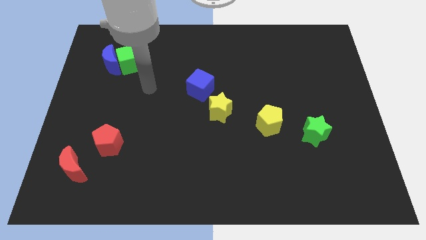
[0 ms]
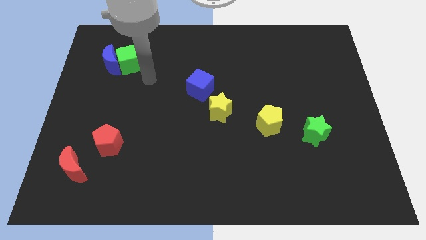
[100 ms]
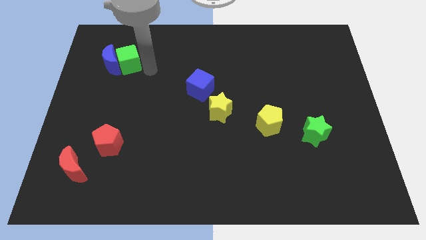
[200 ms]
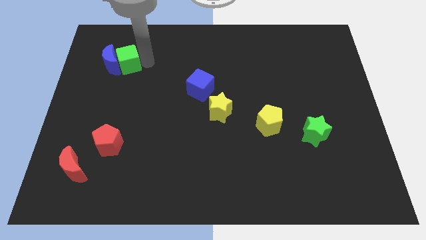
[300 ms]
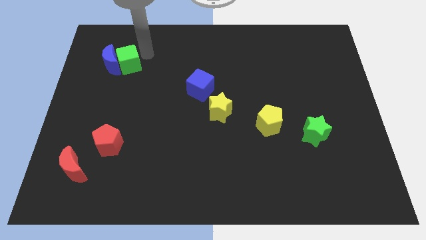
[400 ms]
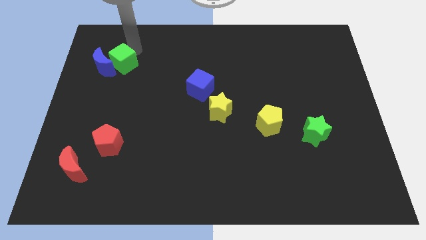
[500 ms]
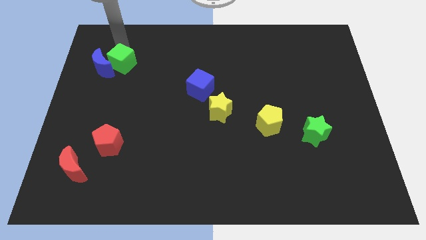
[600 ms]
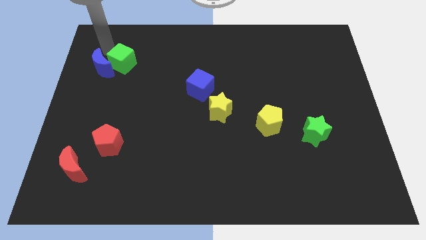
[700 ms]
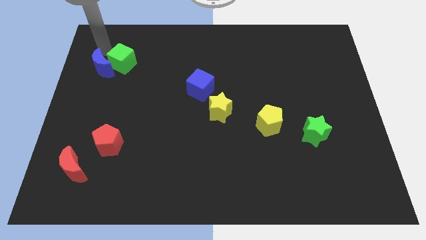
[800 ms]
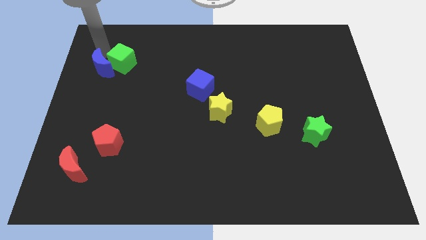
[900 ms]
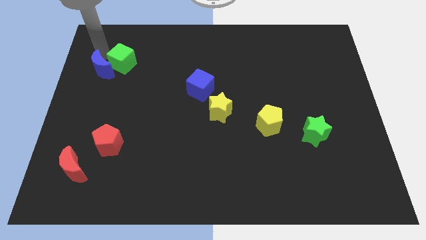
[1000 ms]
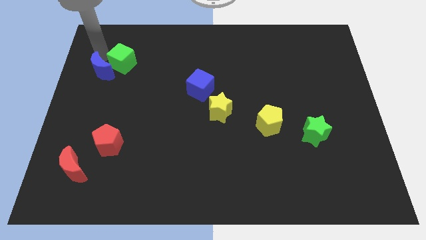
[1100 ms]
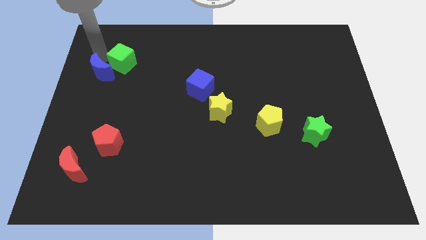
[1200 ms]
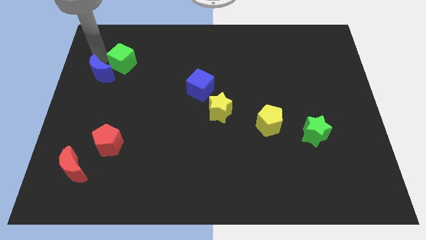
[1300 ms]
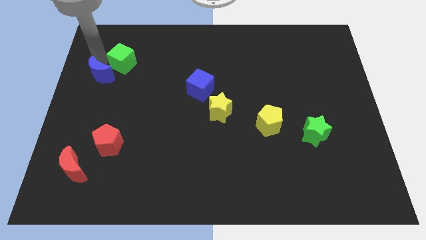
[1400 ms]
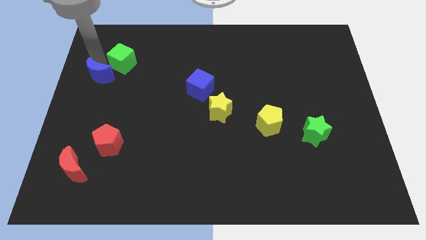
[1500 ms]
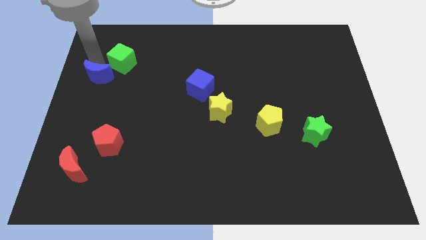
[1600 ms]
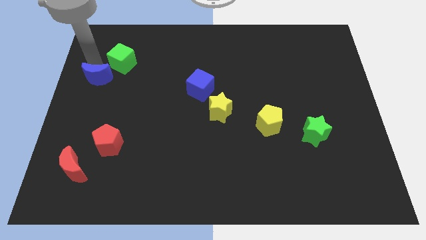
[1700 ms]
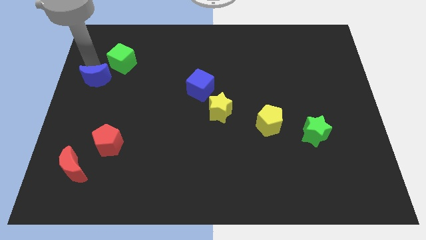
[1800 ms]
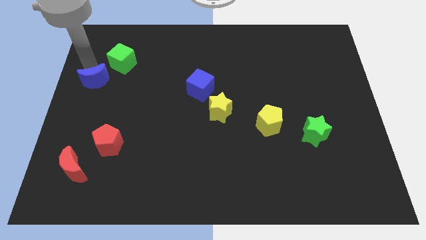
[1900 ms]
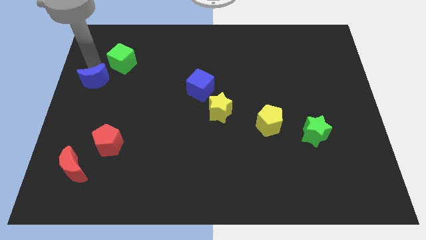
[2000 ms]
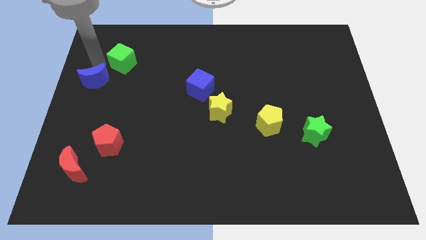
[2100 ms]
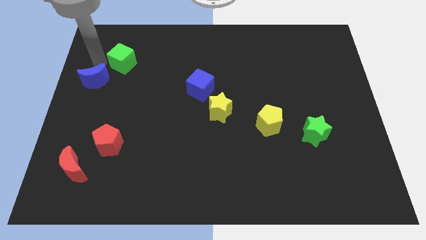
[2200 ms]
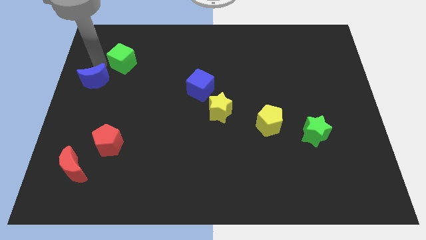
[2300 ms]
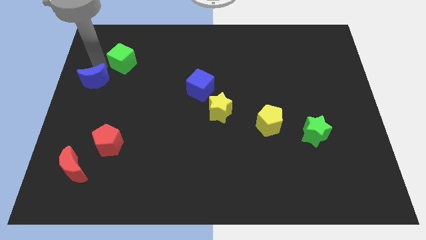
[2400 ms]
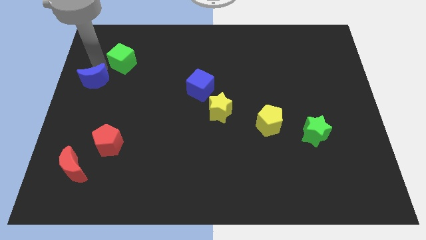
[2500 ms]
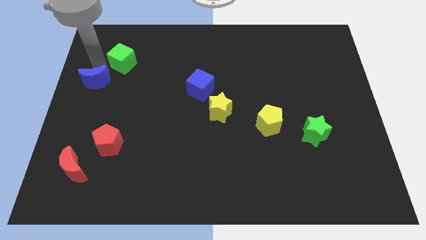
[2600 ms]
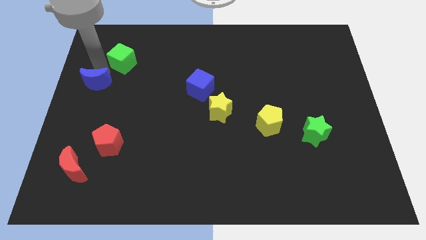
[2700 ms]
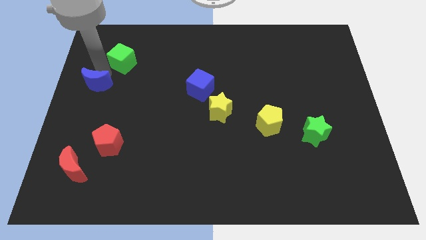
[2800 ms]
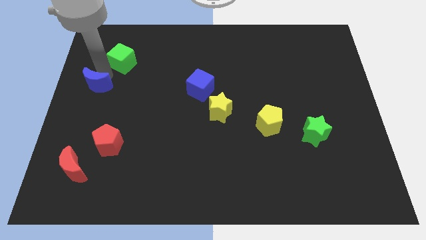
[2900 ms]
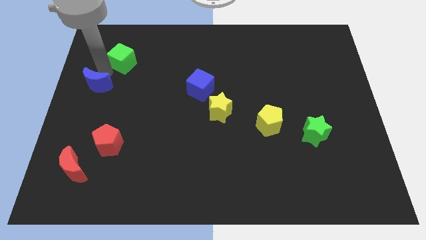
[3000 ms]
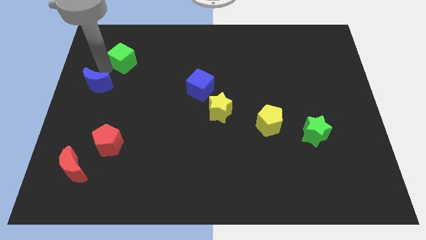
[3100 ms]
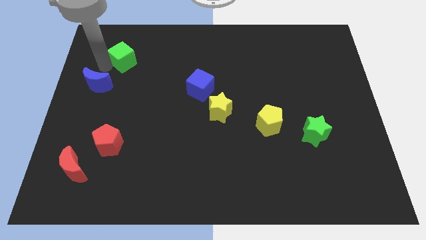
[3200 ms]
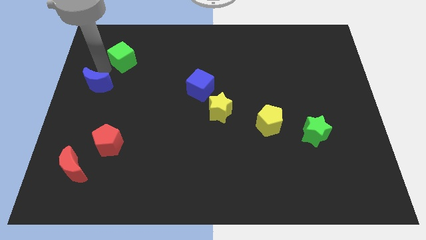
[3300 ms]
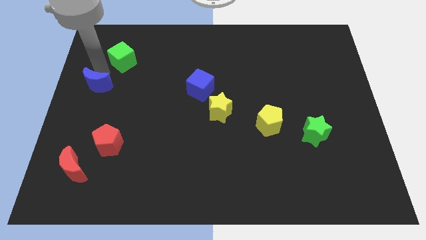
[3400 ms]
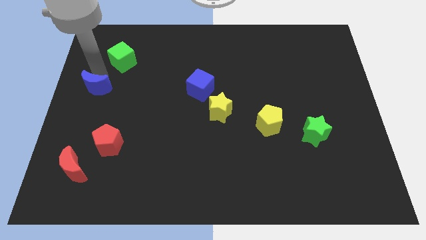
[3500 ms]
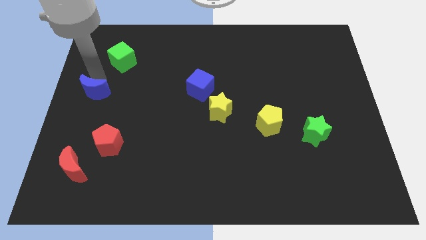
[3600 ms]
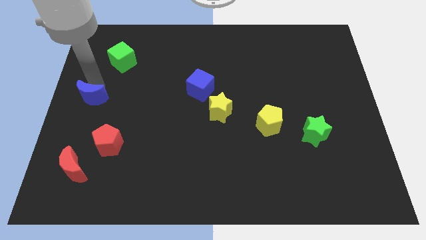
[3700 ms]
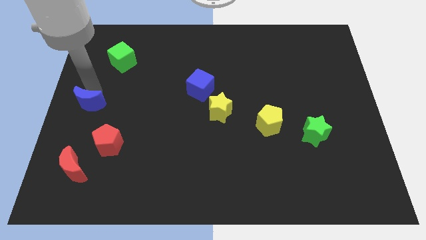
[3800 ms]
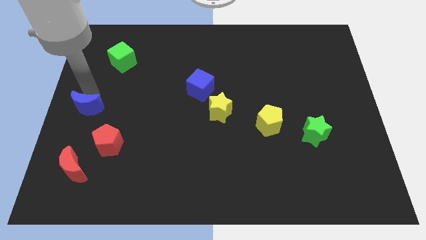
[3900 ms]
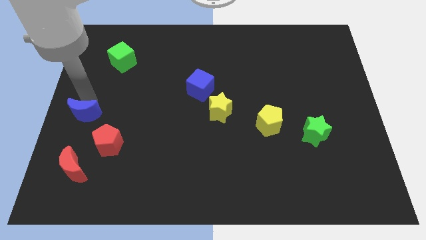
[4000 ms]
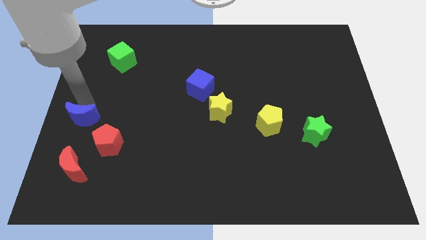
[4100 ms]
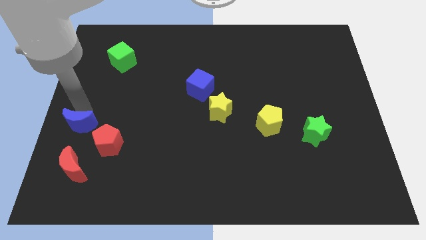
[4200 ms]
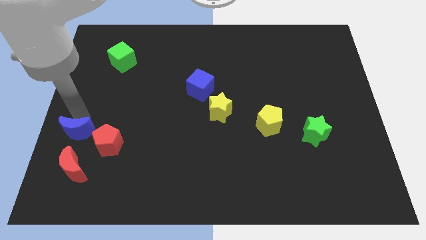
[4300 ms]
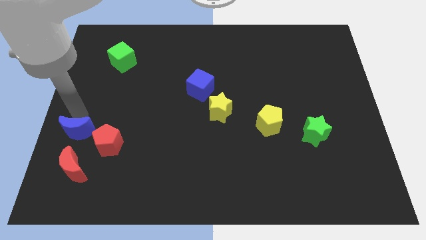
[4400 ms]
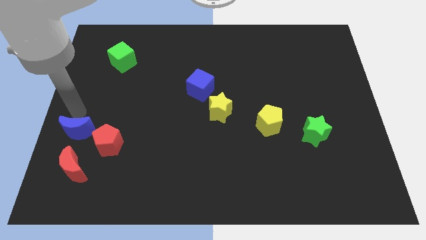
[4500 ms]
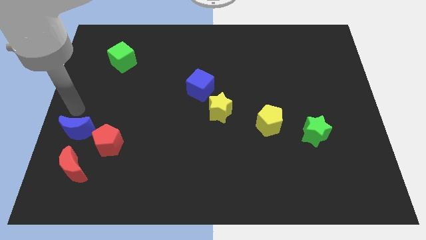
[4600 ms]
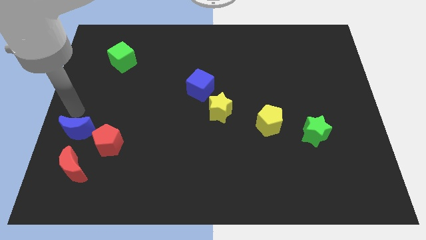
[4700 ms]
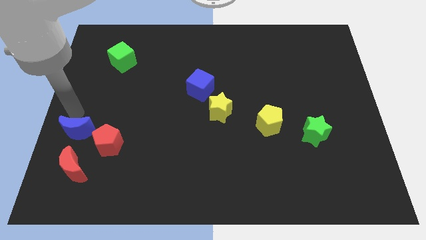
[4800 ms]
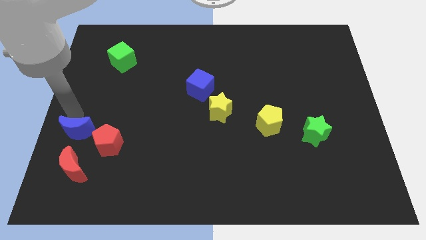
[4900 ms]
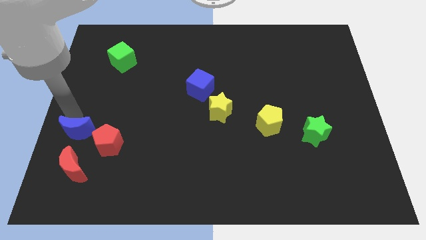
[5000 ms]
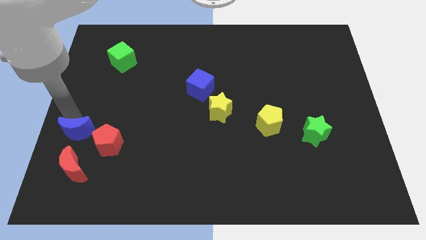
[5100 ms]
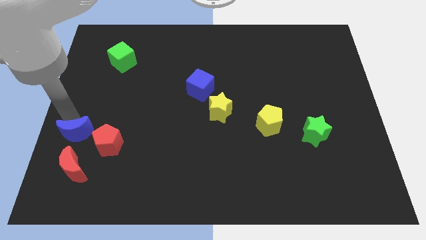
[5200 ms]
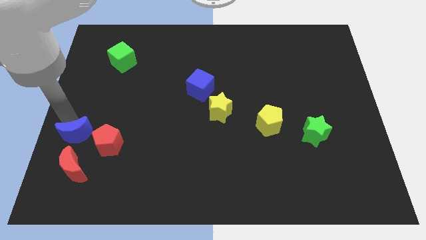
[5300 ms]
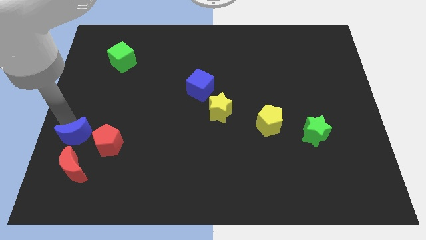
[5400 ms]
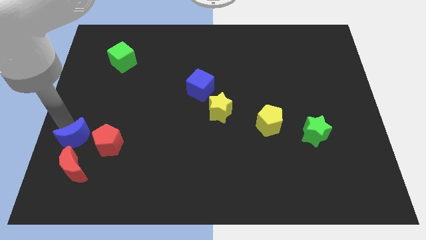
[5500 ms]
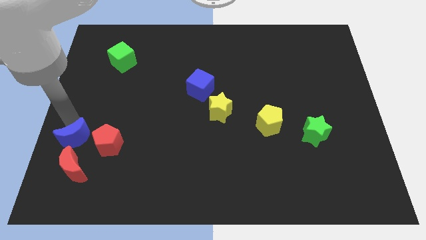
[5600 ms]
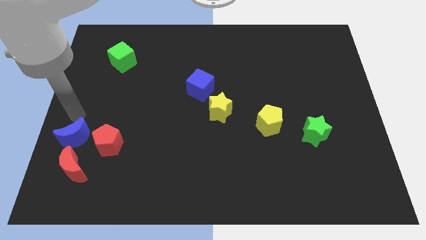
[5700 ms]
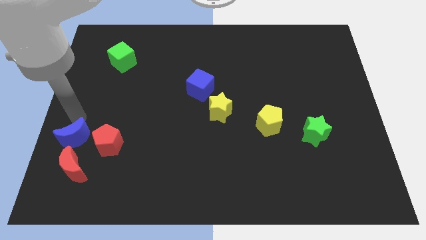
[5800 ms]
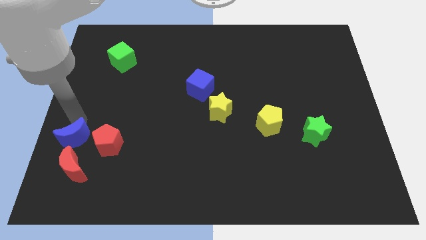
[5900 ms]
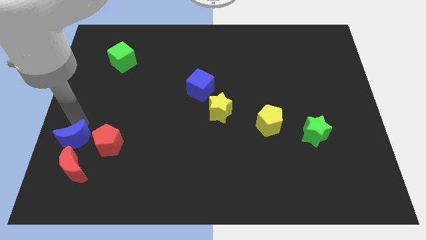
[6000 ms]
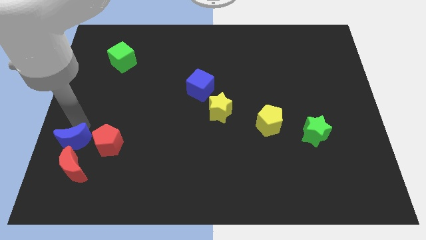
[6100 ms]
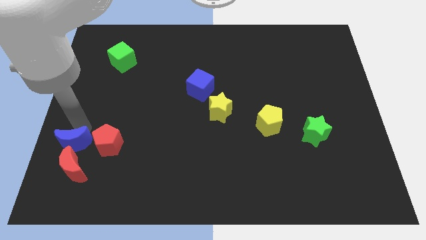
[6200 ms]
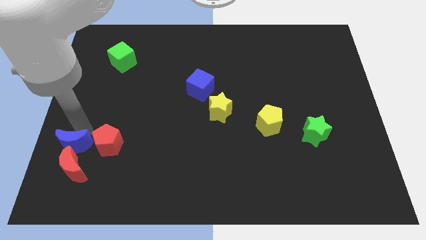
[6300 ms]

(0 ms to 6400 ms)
move the blue moon close to the red moon

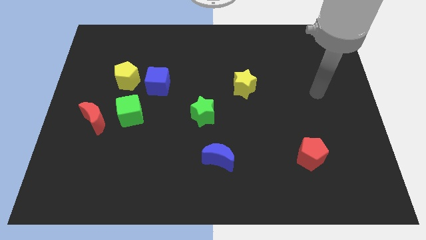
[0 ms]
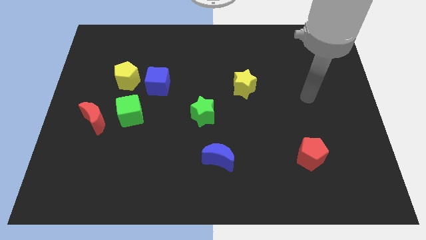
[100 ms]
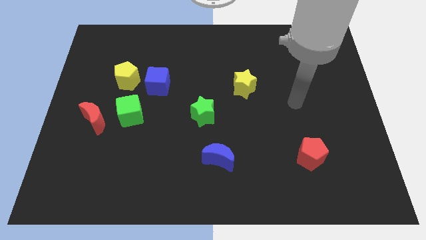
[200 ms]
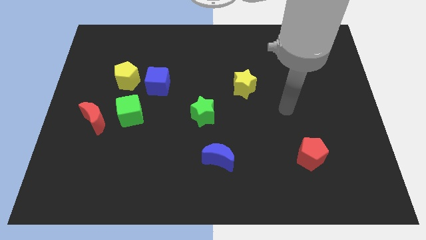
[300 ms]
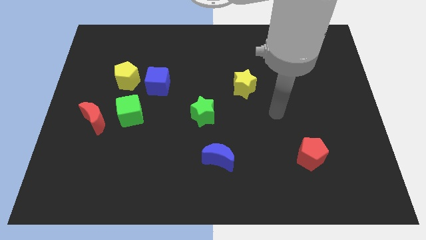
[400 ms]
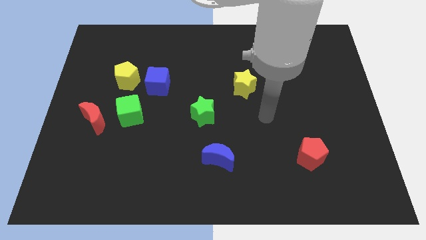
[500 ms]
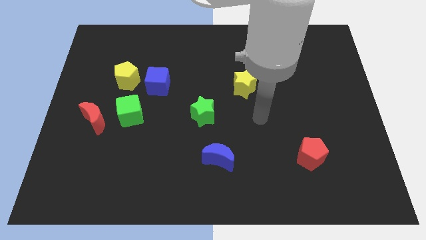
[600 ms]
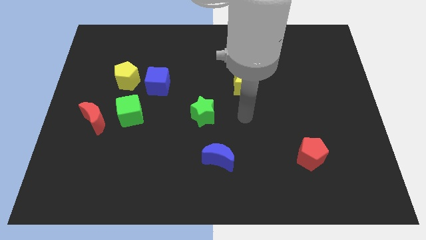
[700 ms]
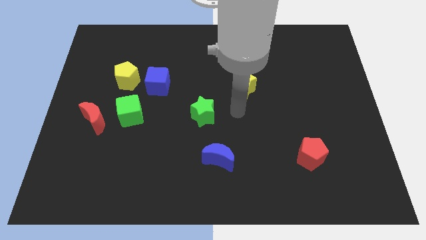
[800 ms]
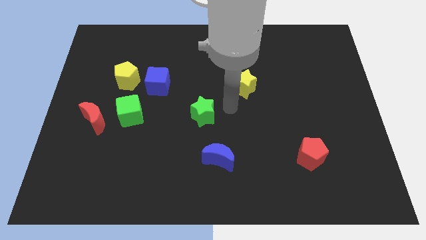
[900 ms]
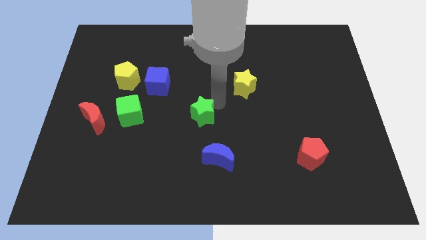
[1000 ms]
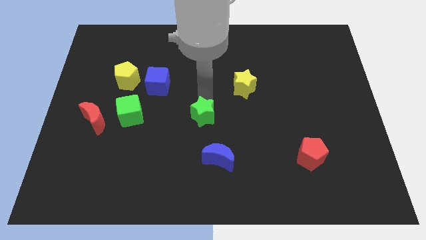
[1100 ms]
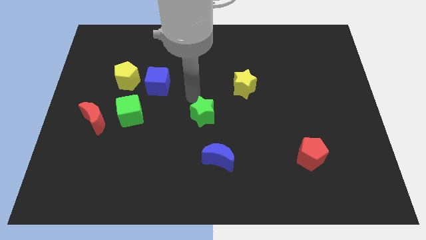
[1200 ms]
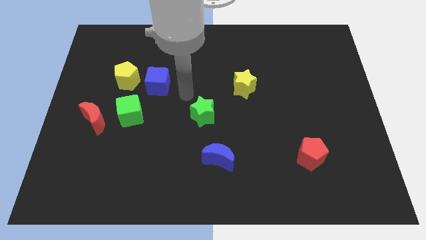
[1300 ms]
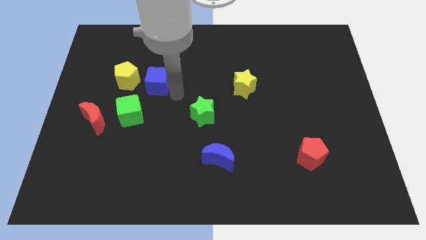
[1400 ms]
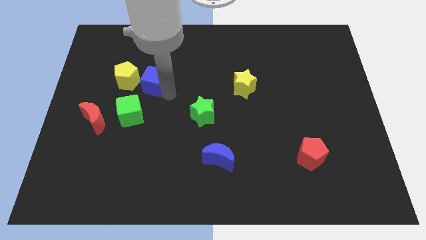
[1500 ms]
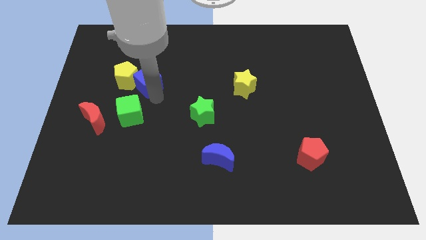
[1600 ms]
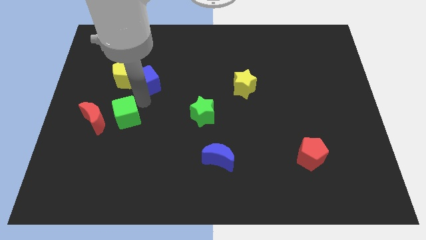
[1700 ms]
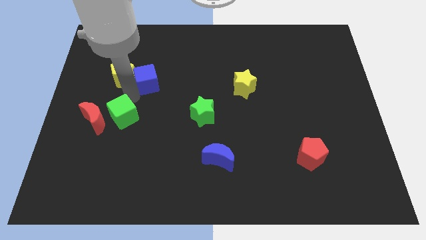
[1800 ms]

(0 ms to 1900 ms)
put the red moon next to the green cube
